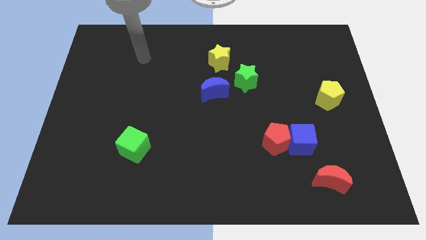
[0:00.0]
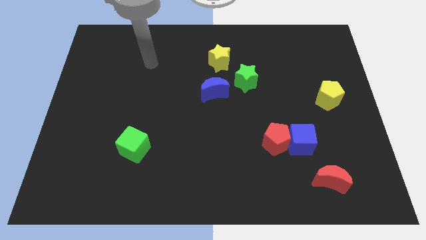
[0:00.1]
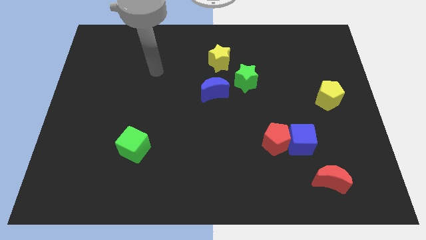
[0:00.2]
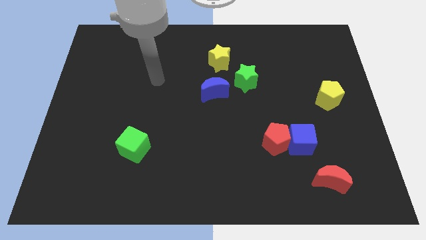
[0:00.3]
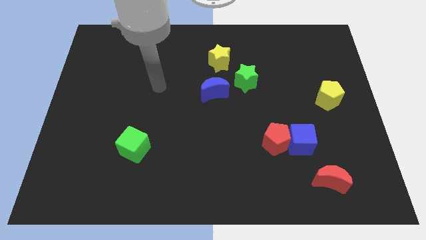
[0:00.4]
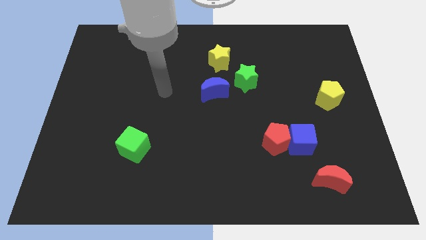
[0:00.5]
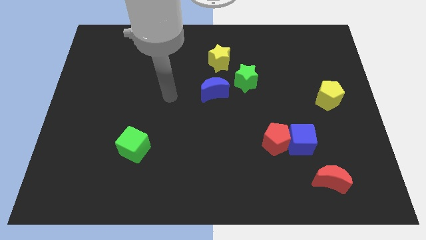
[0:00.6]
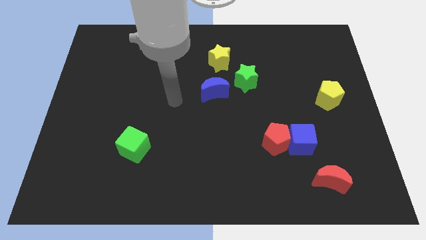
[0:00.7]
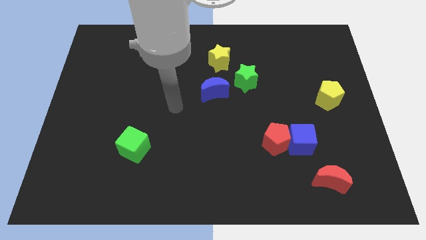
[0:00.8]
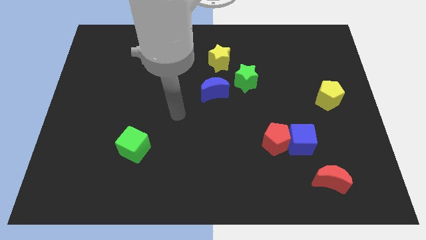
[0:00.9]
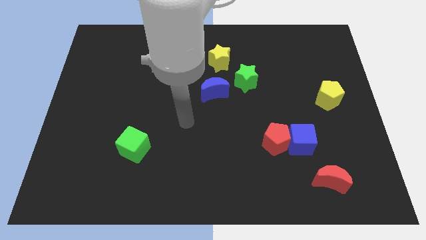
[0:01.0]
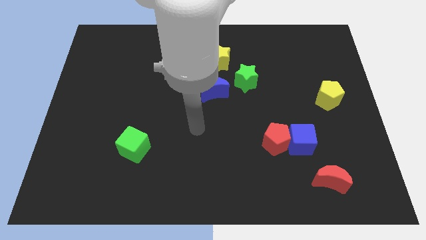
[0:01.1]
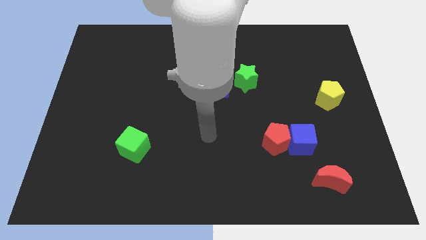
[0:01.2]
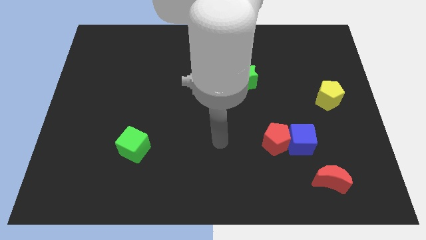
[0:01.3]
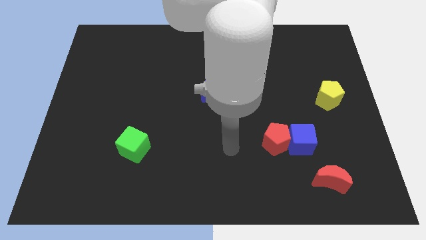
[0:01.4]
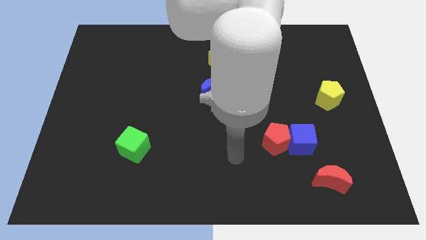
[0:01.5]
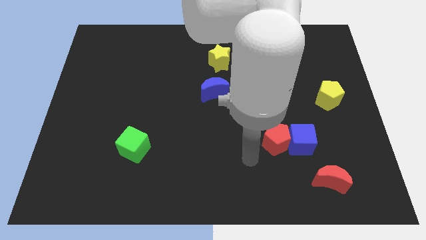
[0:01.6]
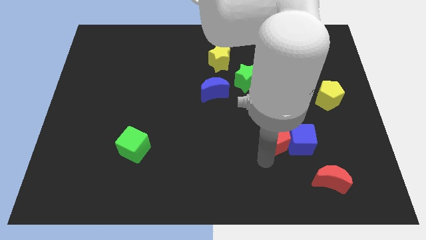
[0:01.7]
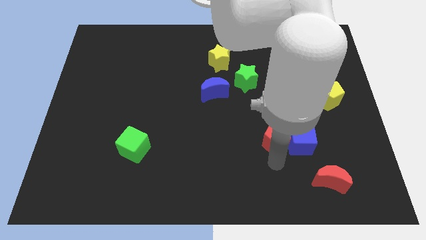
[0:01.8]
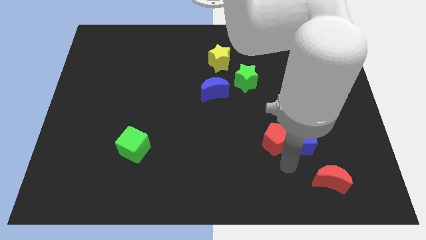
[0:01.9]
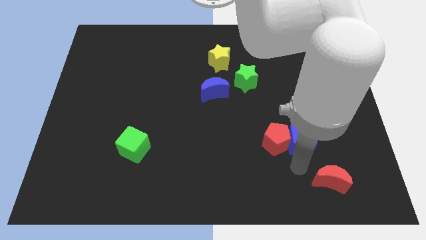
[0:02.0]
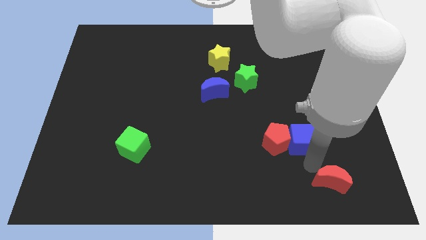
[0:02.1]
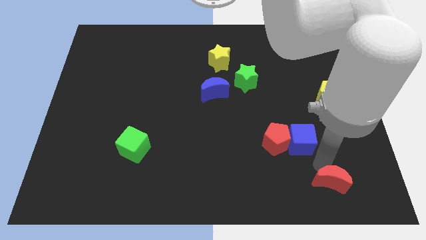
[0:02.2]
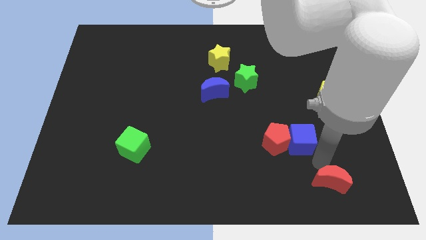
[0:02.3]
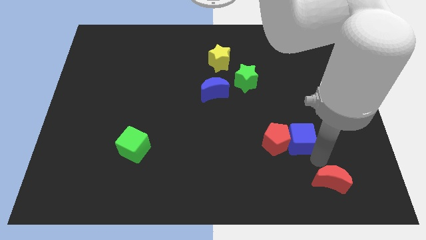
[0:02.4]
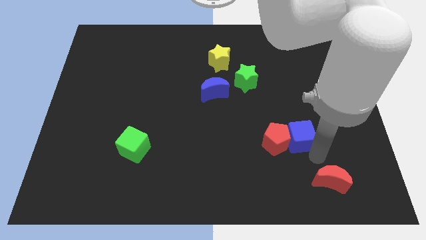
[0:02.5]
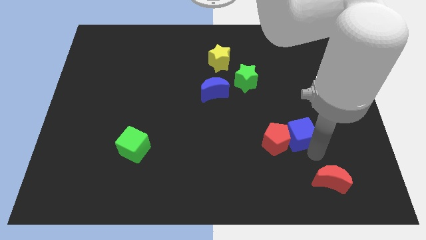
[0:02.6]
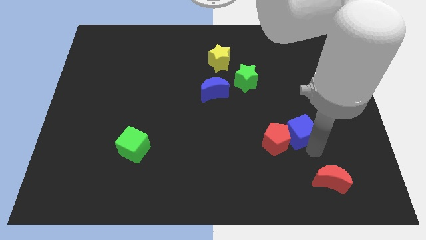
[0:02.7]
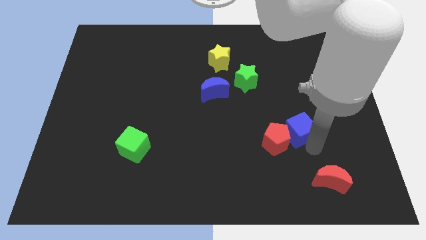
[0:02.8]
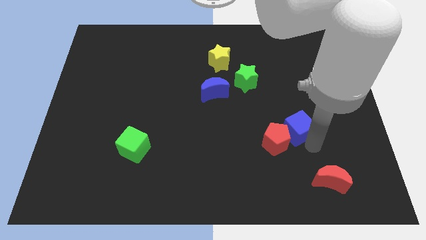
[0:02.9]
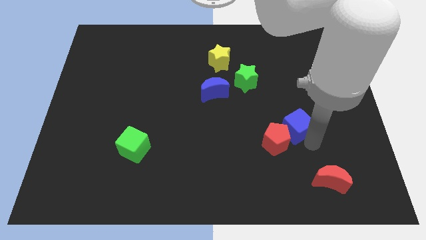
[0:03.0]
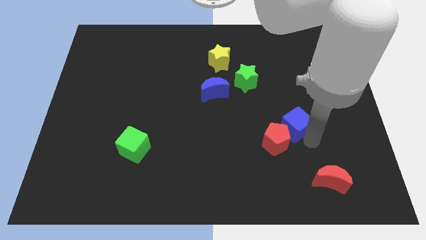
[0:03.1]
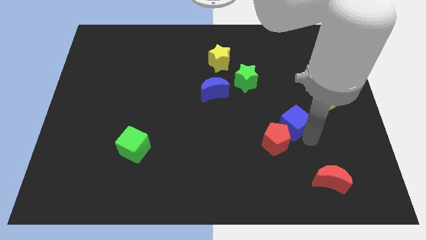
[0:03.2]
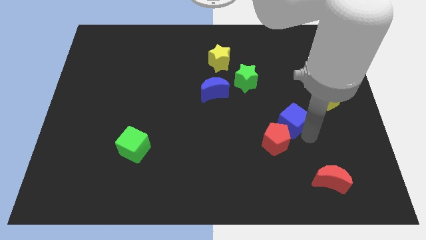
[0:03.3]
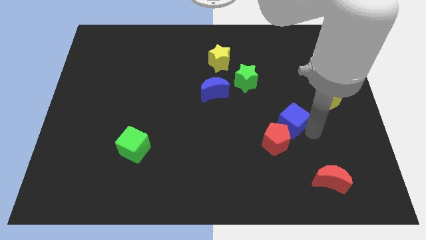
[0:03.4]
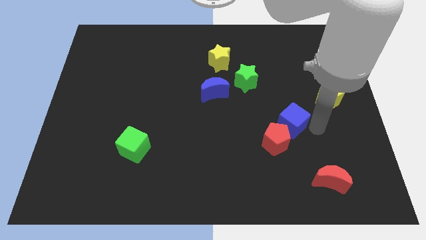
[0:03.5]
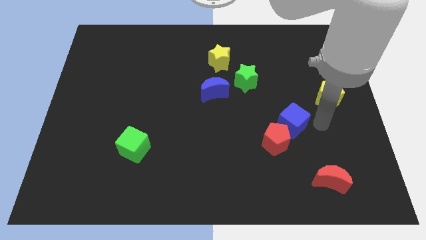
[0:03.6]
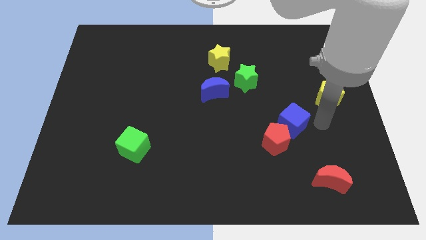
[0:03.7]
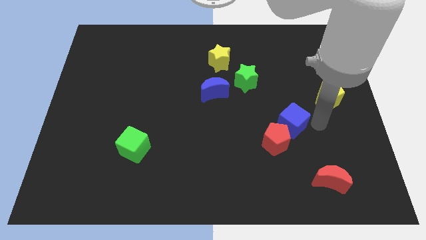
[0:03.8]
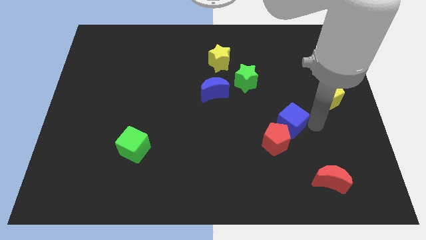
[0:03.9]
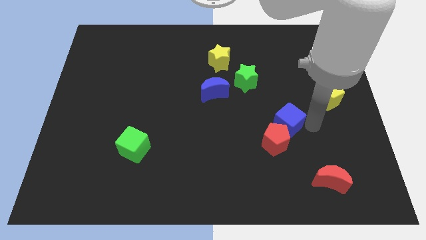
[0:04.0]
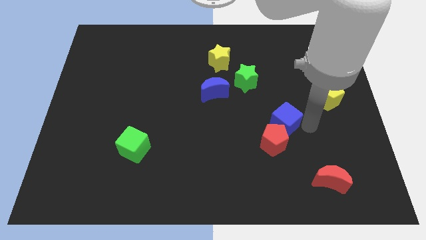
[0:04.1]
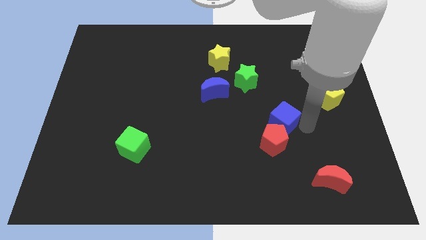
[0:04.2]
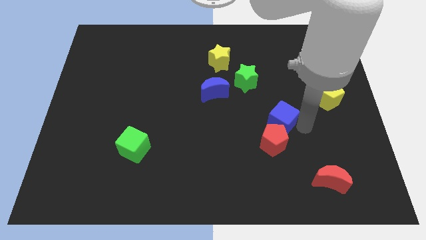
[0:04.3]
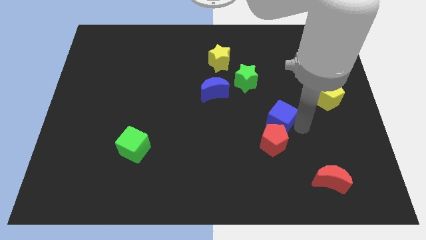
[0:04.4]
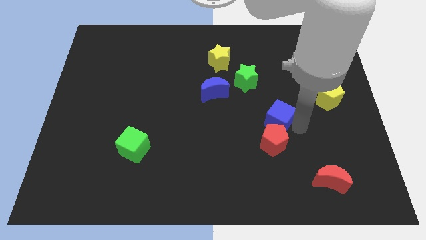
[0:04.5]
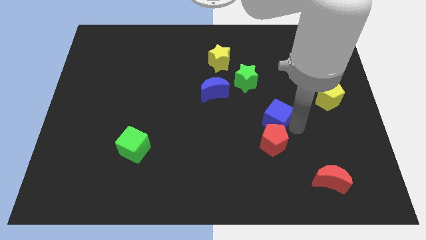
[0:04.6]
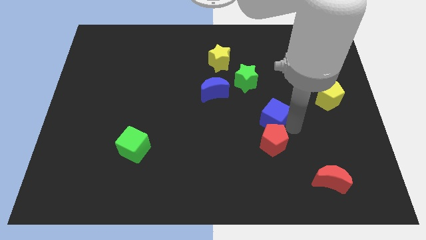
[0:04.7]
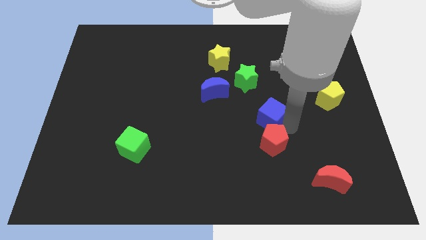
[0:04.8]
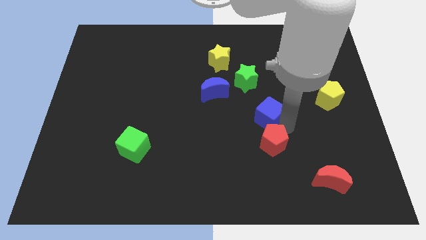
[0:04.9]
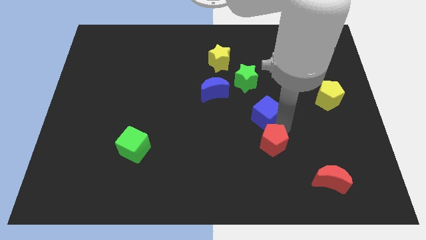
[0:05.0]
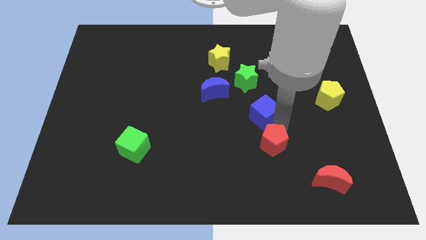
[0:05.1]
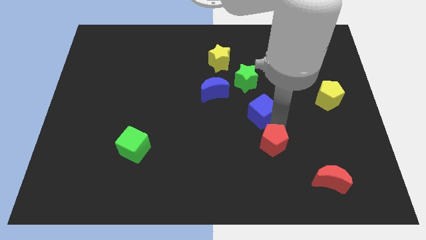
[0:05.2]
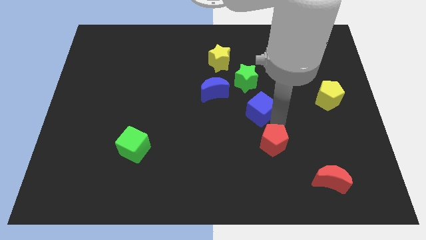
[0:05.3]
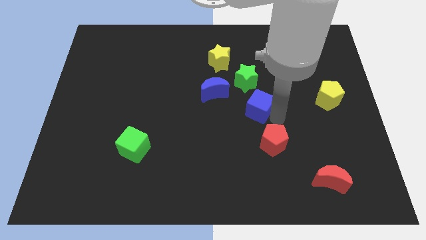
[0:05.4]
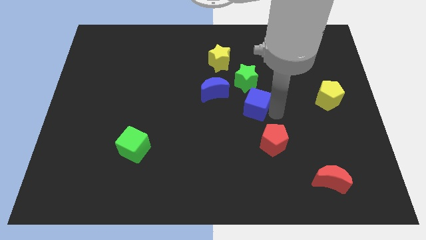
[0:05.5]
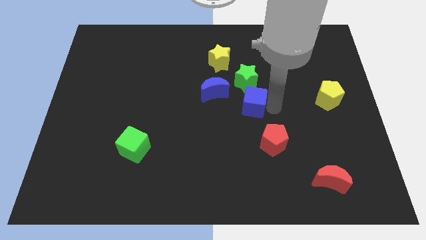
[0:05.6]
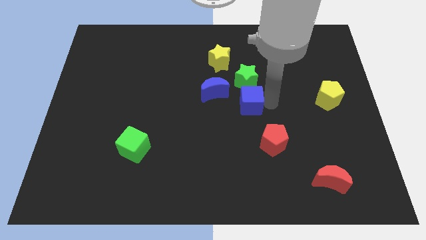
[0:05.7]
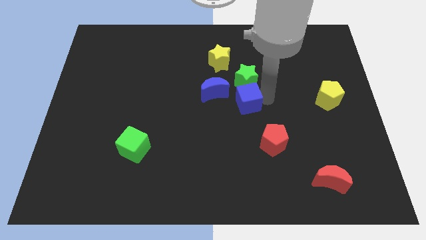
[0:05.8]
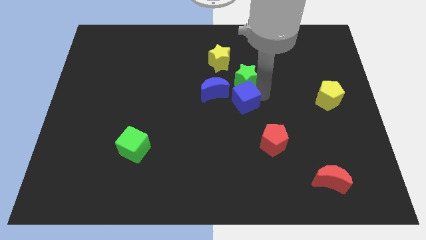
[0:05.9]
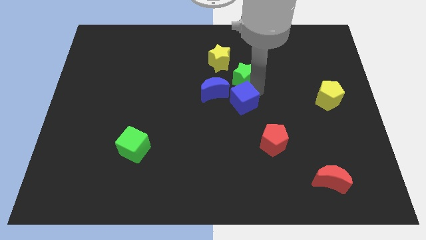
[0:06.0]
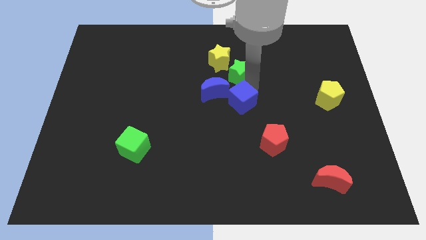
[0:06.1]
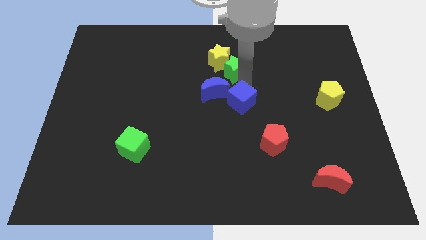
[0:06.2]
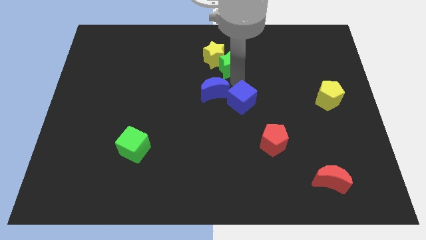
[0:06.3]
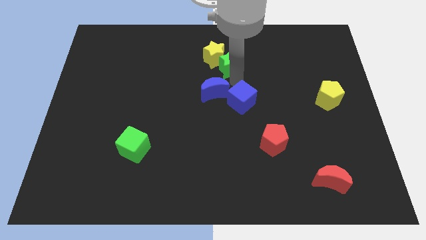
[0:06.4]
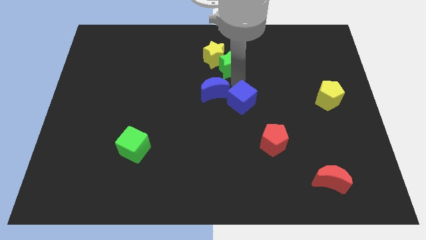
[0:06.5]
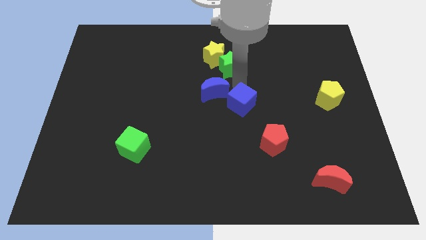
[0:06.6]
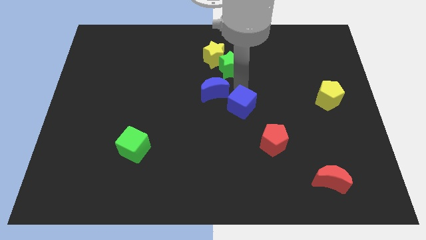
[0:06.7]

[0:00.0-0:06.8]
push the blue cube left a bit

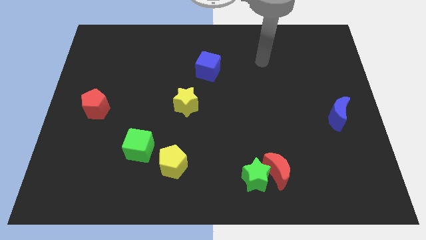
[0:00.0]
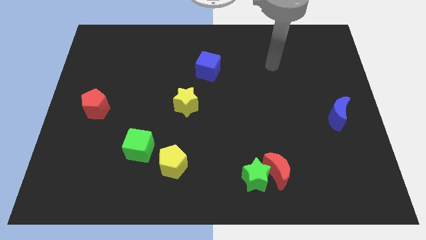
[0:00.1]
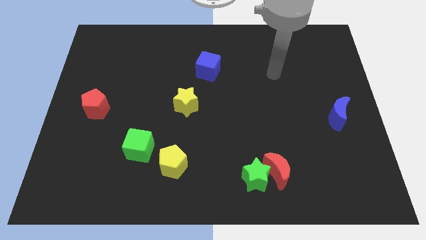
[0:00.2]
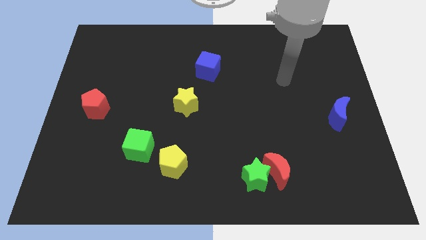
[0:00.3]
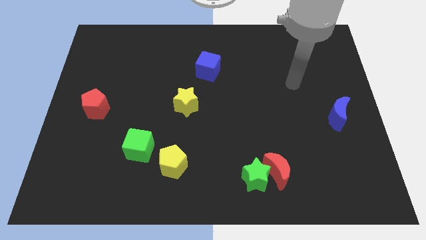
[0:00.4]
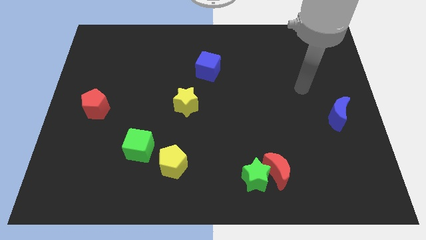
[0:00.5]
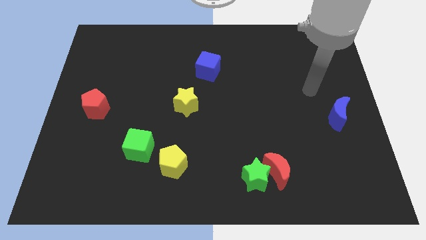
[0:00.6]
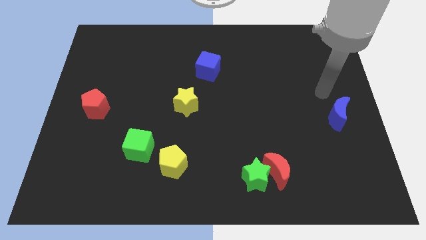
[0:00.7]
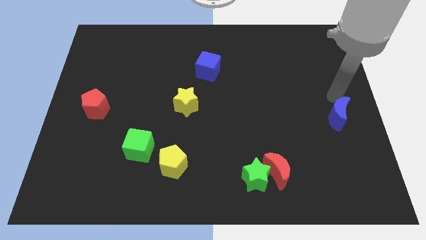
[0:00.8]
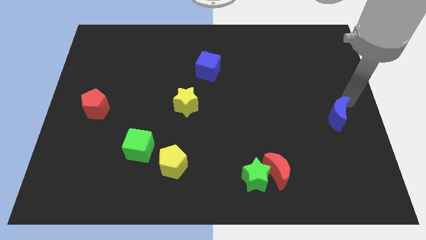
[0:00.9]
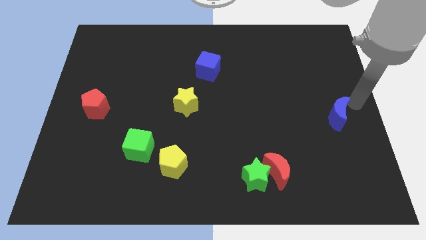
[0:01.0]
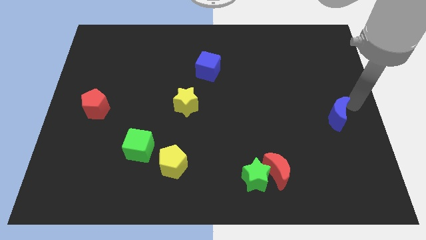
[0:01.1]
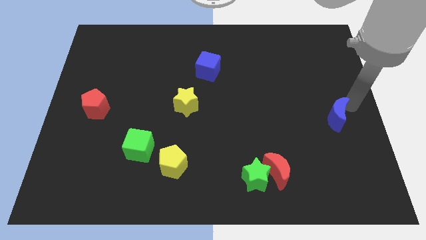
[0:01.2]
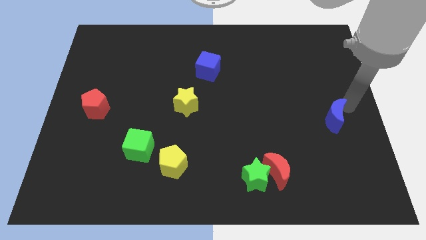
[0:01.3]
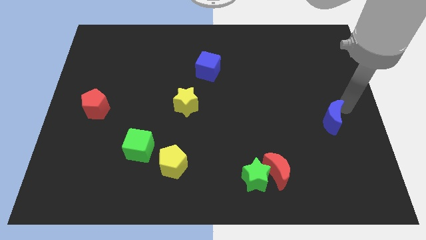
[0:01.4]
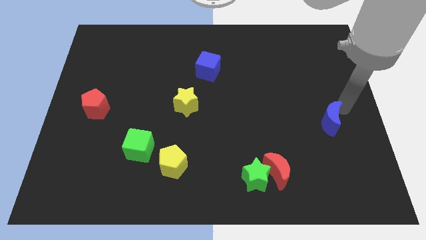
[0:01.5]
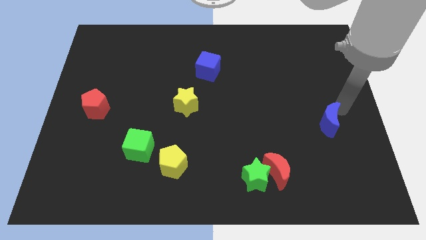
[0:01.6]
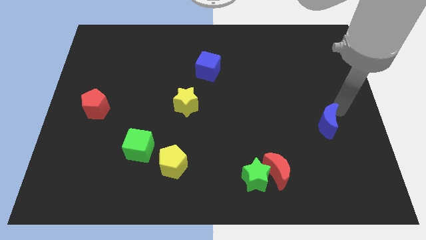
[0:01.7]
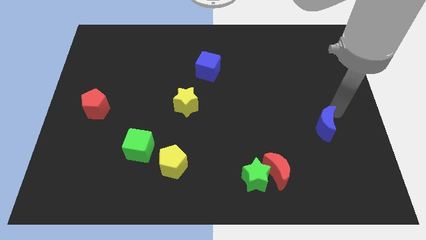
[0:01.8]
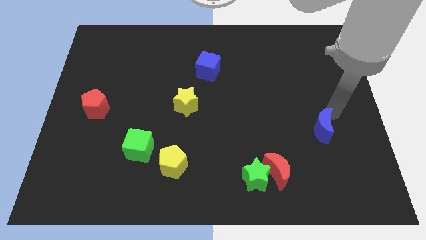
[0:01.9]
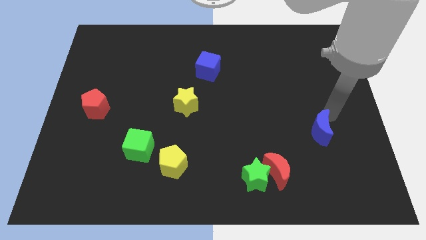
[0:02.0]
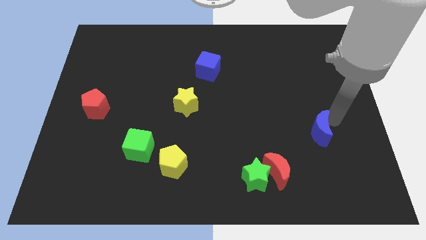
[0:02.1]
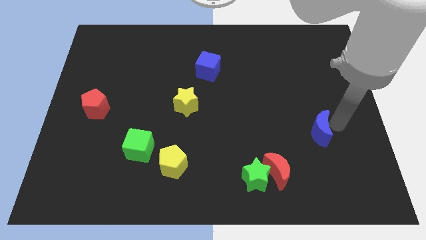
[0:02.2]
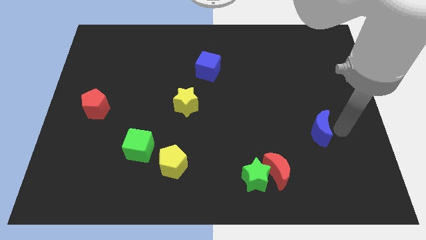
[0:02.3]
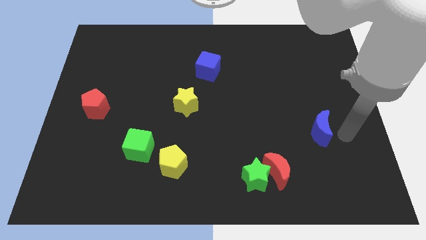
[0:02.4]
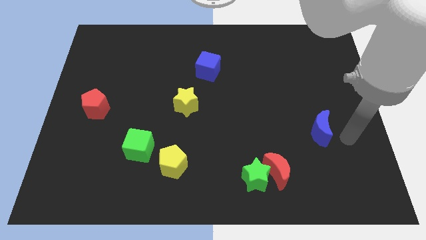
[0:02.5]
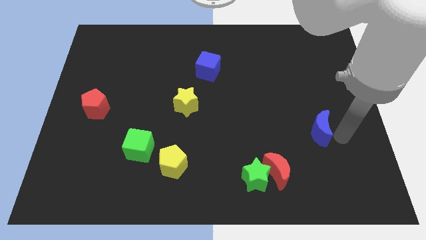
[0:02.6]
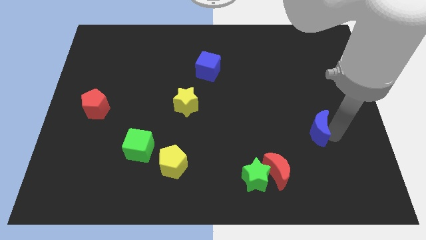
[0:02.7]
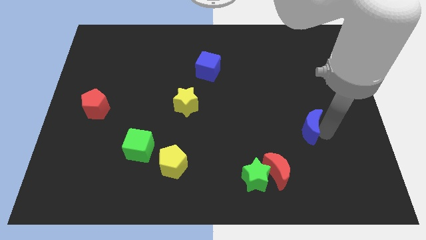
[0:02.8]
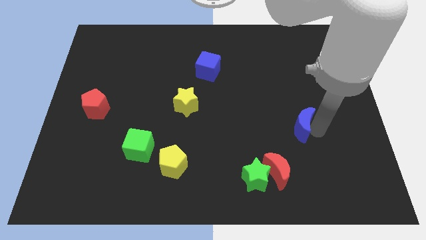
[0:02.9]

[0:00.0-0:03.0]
slightly push the blue moon to the left
